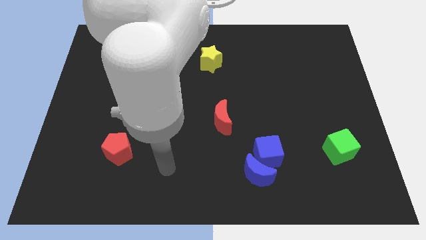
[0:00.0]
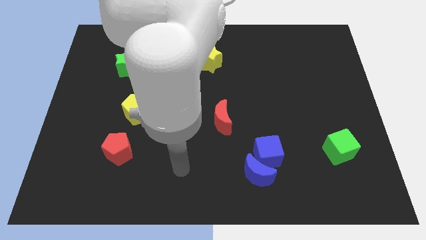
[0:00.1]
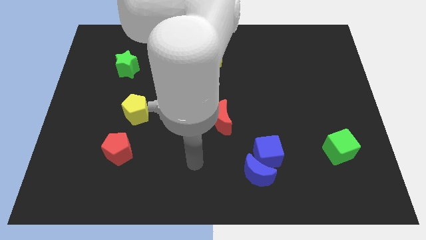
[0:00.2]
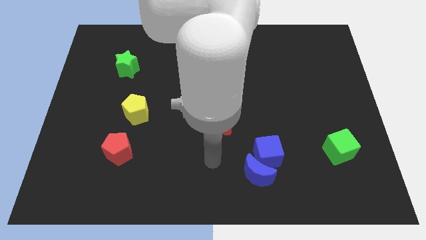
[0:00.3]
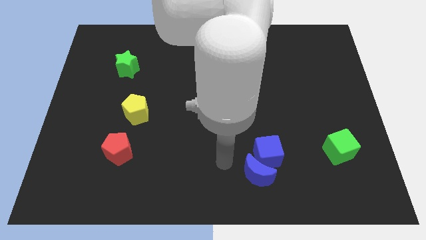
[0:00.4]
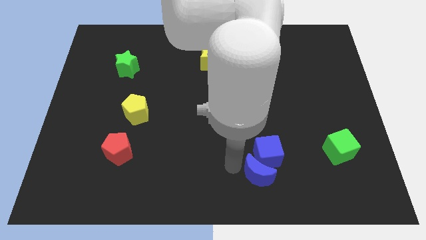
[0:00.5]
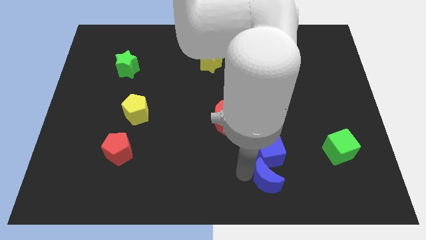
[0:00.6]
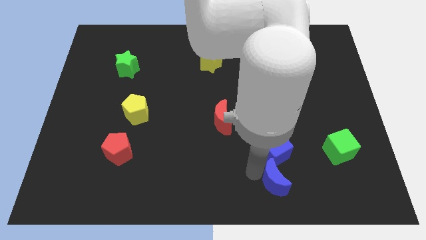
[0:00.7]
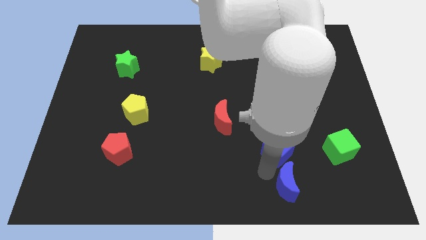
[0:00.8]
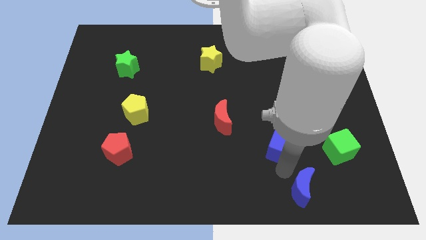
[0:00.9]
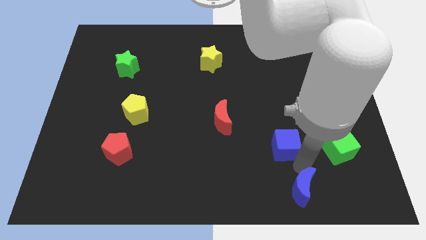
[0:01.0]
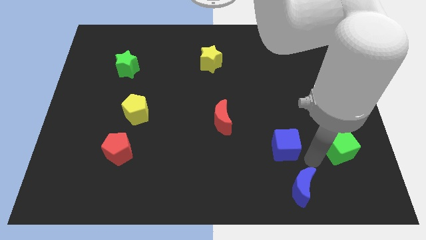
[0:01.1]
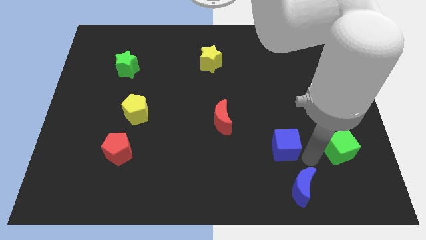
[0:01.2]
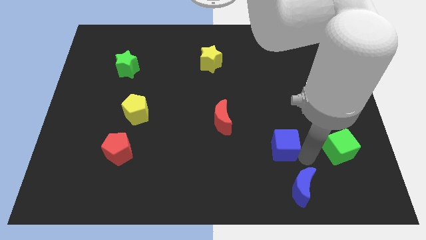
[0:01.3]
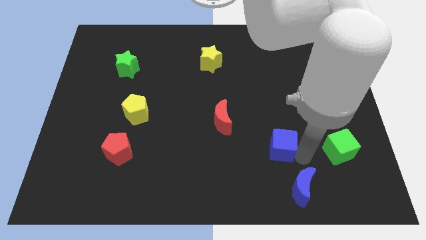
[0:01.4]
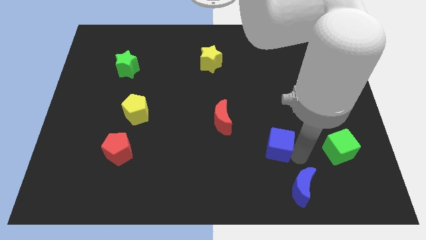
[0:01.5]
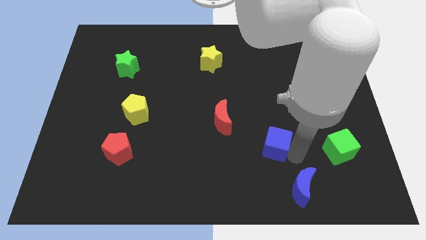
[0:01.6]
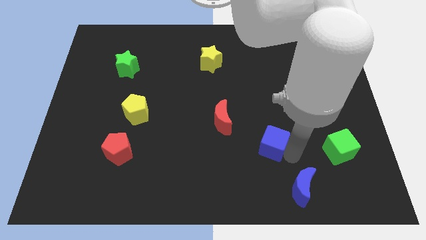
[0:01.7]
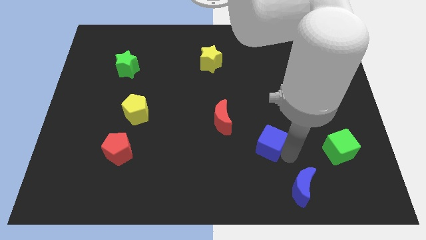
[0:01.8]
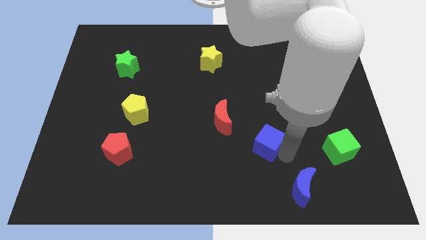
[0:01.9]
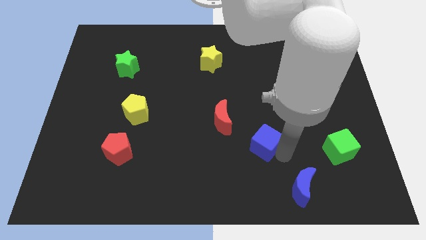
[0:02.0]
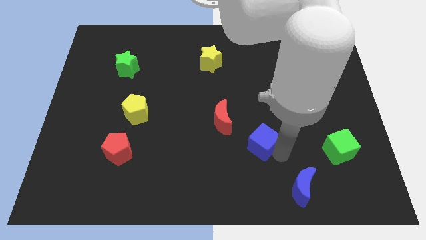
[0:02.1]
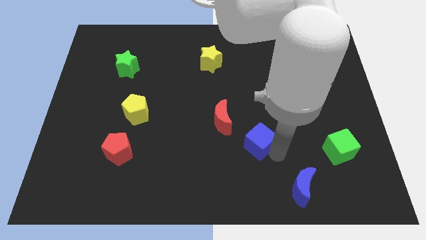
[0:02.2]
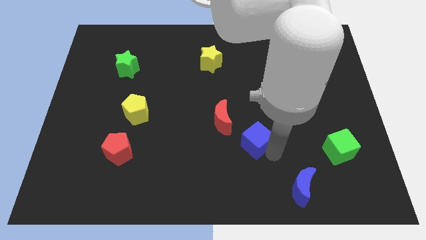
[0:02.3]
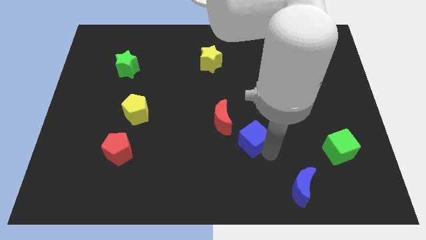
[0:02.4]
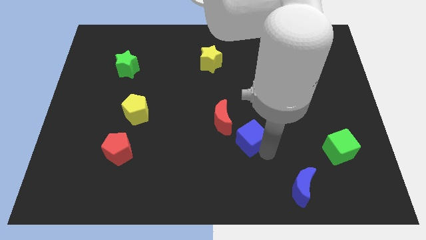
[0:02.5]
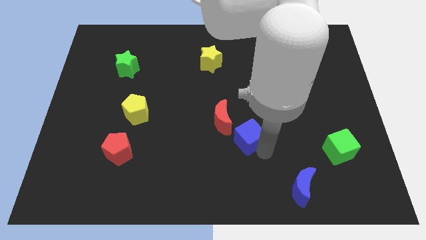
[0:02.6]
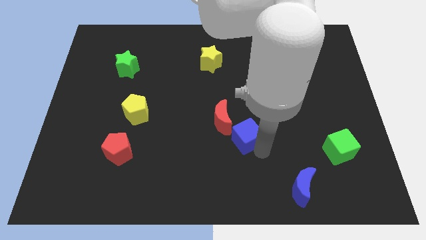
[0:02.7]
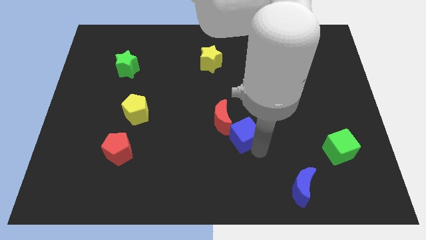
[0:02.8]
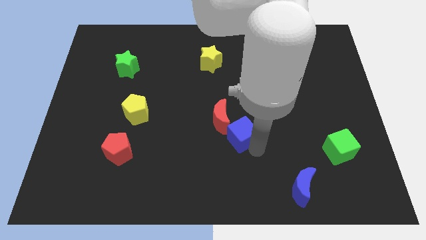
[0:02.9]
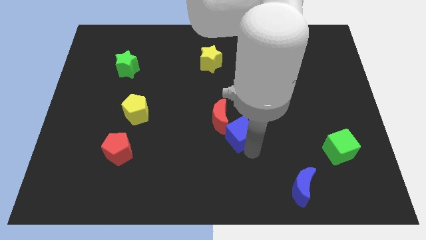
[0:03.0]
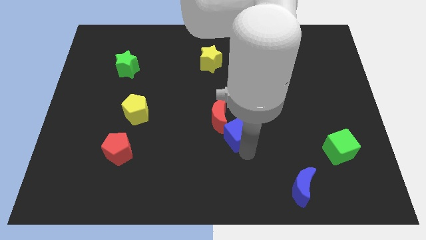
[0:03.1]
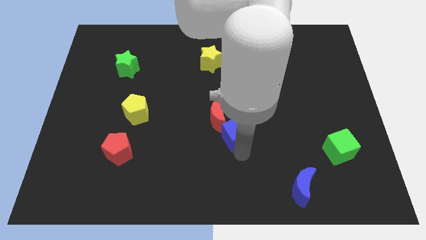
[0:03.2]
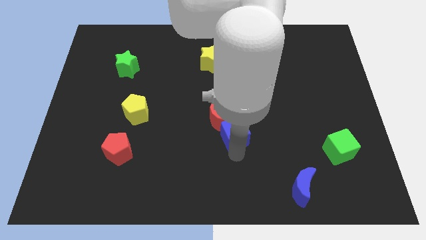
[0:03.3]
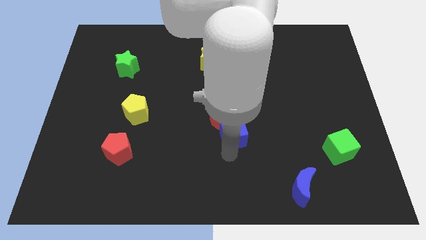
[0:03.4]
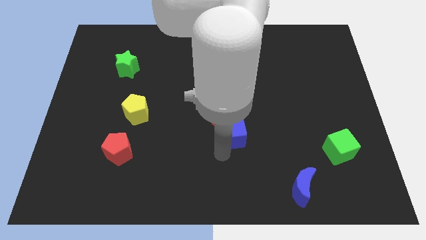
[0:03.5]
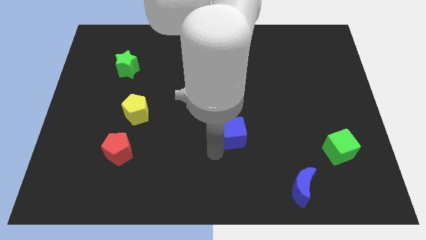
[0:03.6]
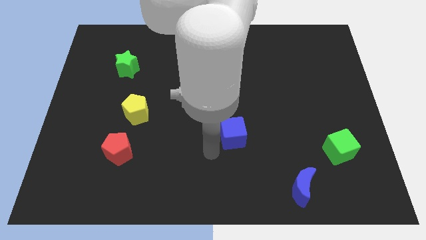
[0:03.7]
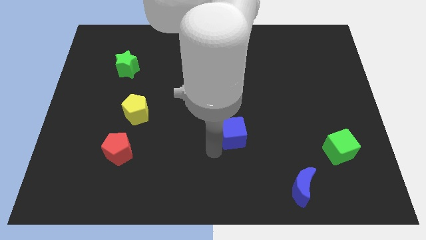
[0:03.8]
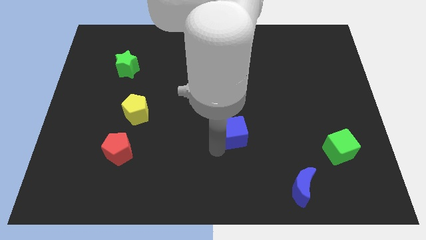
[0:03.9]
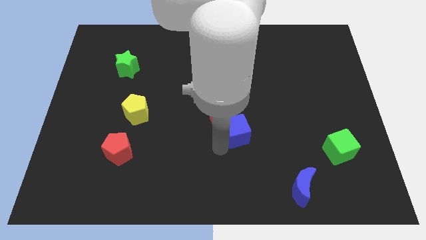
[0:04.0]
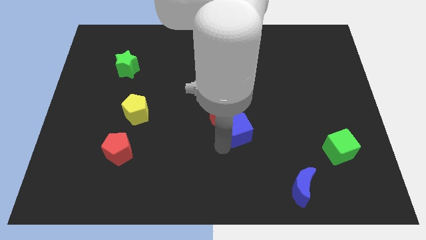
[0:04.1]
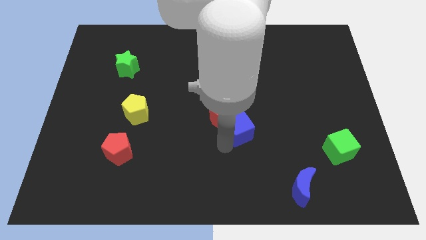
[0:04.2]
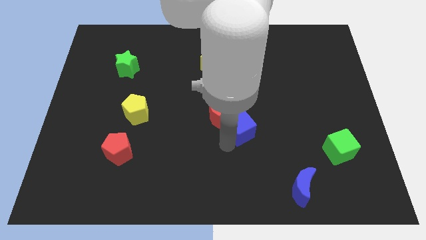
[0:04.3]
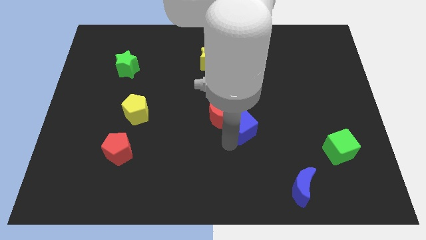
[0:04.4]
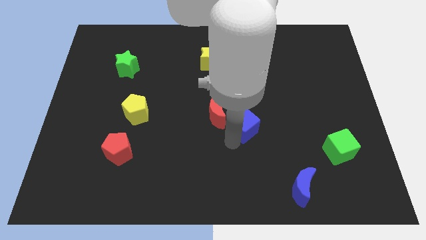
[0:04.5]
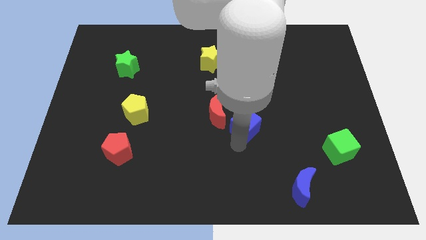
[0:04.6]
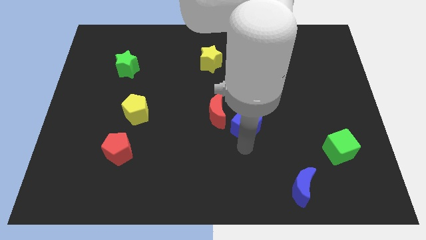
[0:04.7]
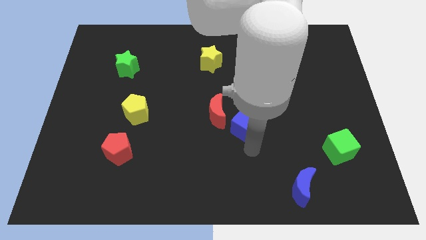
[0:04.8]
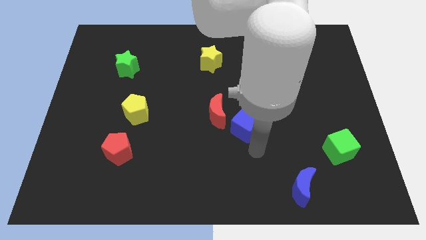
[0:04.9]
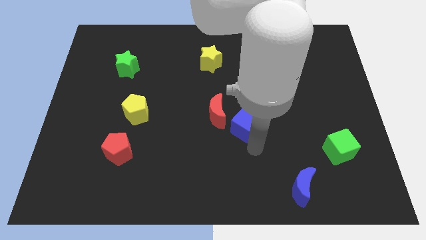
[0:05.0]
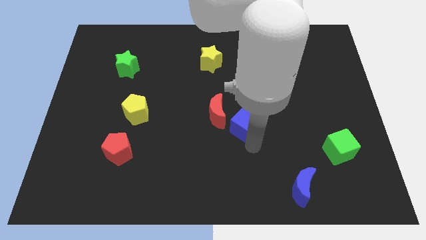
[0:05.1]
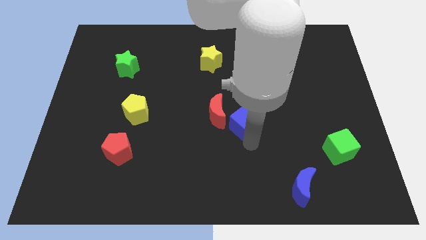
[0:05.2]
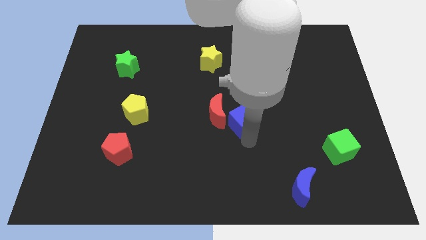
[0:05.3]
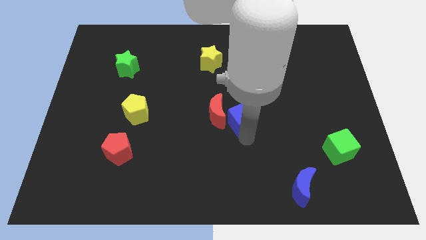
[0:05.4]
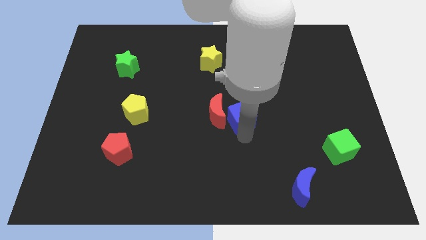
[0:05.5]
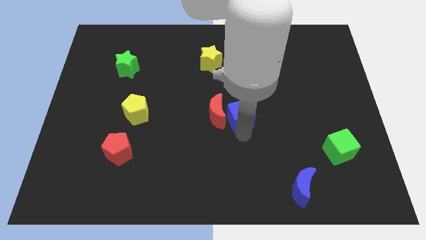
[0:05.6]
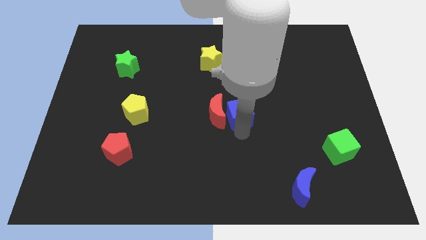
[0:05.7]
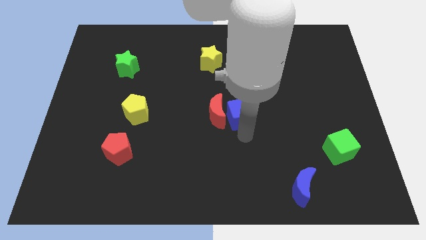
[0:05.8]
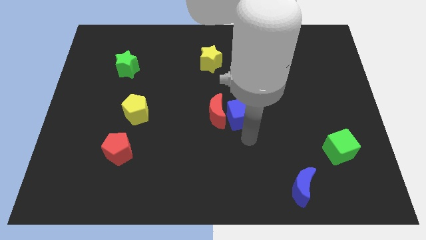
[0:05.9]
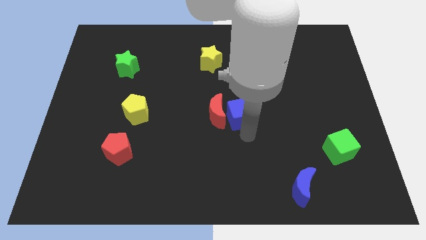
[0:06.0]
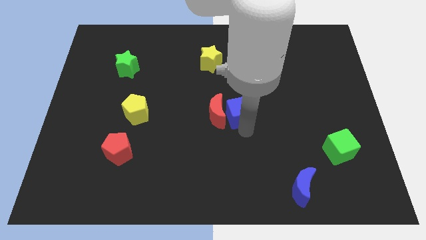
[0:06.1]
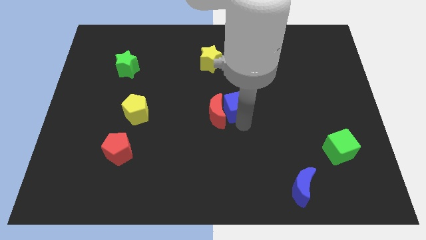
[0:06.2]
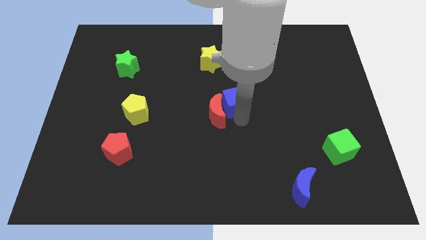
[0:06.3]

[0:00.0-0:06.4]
push the blue cube above the red moon

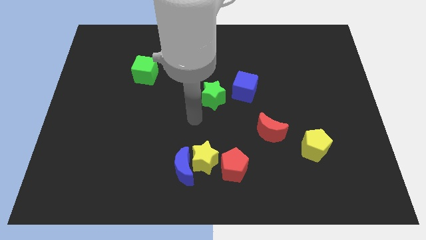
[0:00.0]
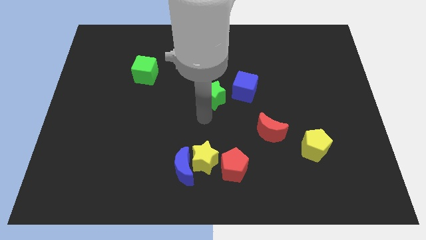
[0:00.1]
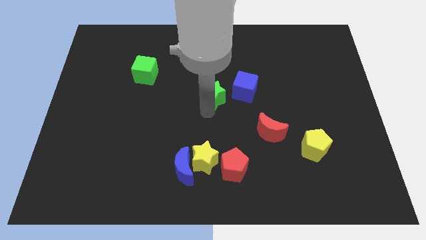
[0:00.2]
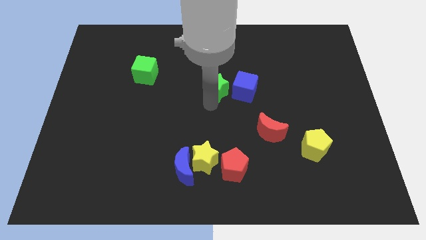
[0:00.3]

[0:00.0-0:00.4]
slide the green star to the top left side of the blue cube
